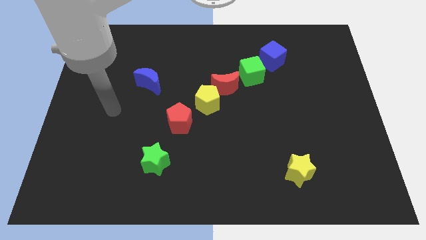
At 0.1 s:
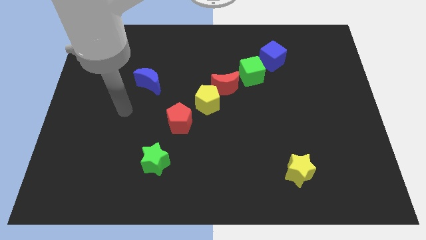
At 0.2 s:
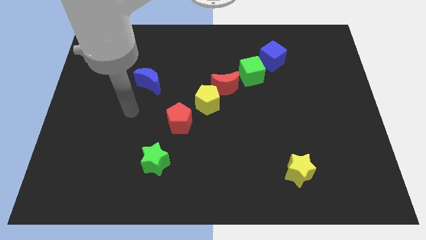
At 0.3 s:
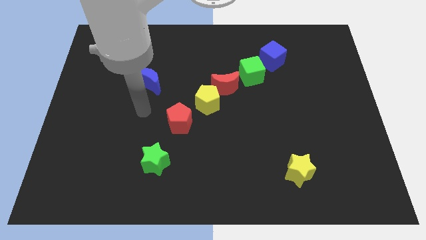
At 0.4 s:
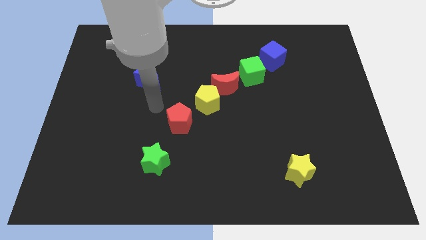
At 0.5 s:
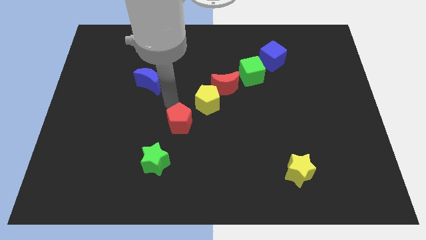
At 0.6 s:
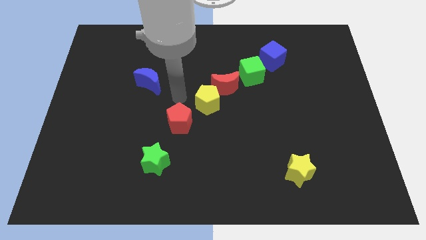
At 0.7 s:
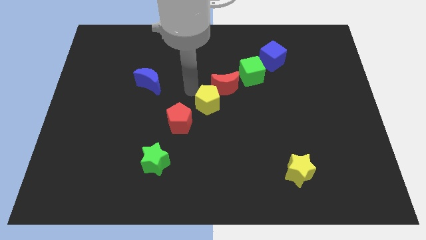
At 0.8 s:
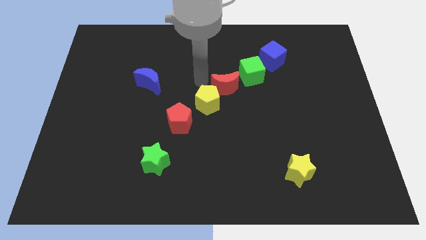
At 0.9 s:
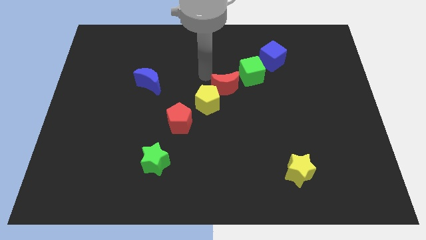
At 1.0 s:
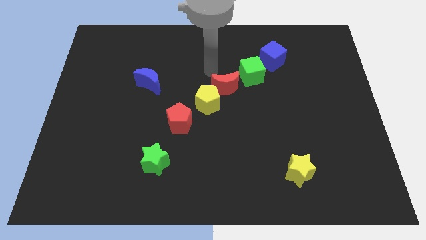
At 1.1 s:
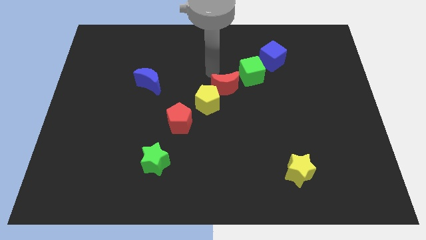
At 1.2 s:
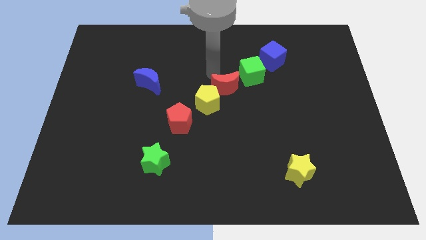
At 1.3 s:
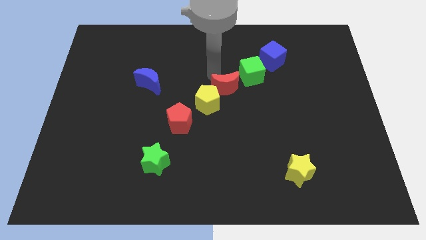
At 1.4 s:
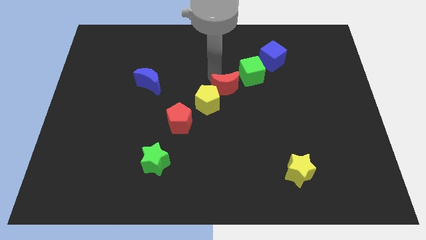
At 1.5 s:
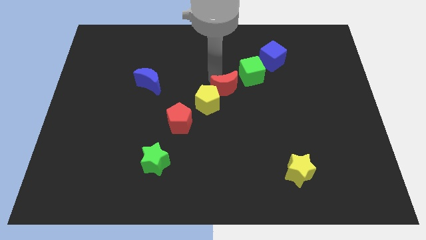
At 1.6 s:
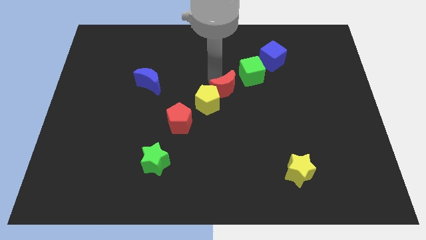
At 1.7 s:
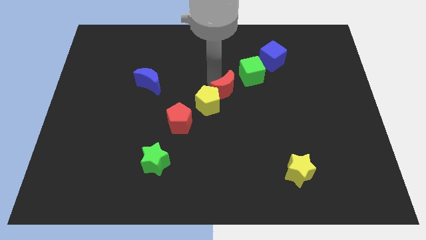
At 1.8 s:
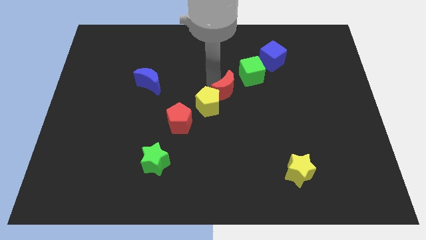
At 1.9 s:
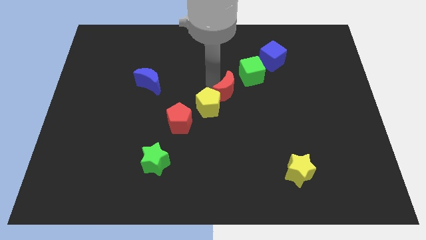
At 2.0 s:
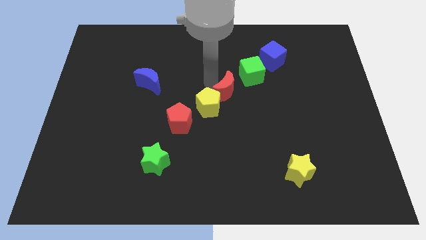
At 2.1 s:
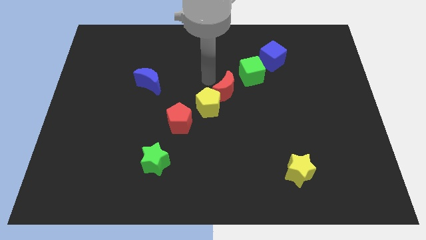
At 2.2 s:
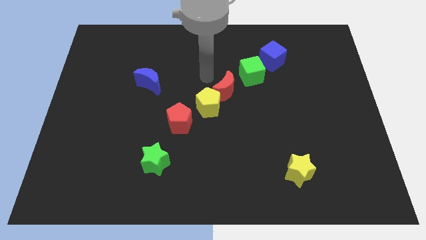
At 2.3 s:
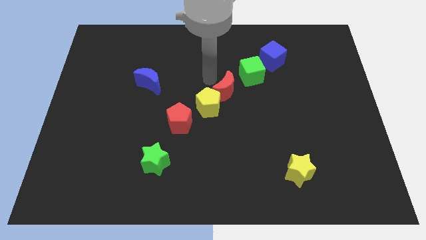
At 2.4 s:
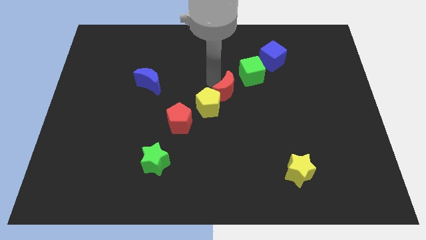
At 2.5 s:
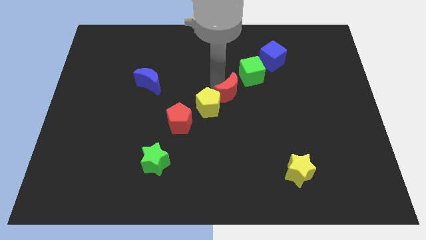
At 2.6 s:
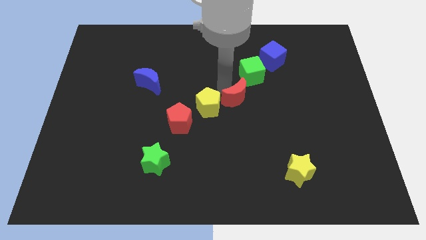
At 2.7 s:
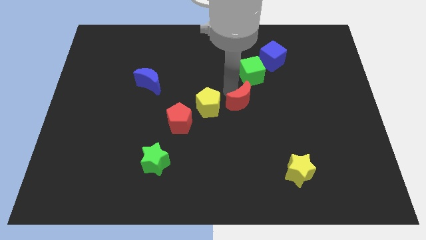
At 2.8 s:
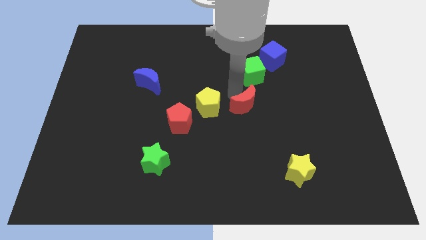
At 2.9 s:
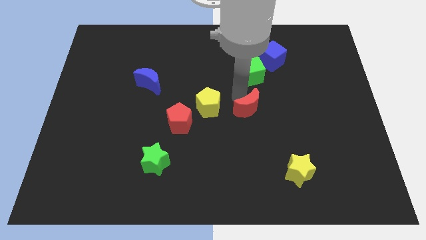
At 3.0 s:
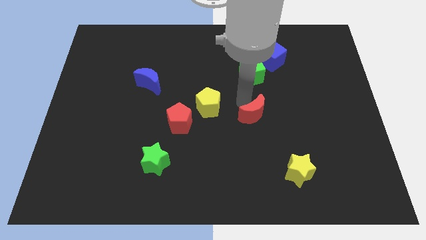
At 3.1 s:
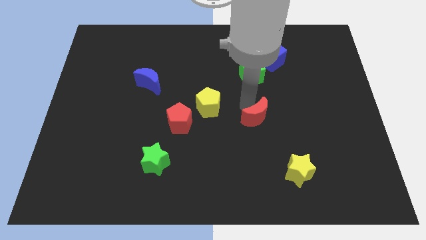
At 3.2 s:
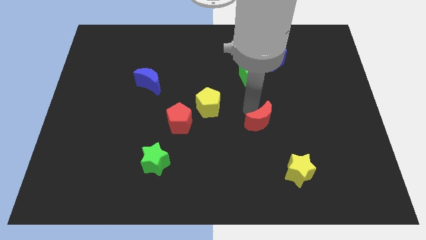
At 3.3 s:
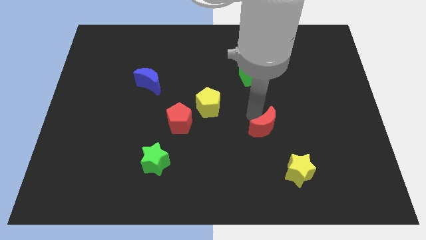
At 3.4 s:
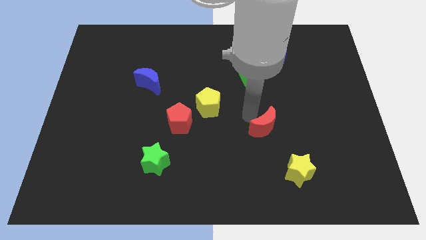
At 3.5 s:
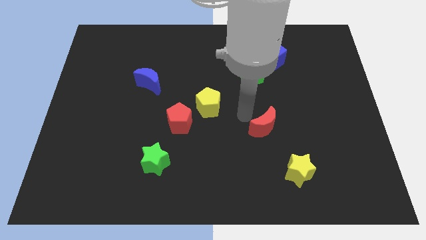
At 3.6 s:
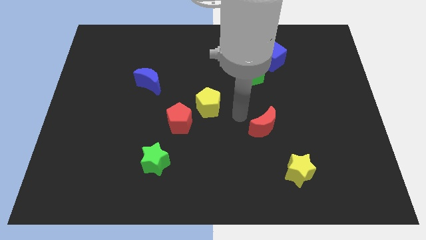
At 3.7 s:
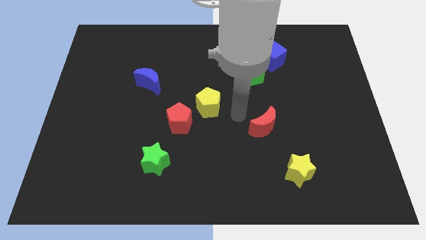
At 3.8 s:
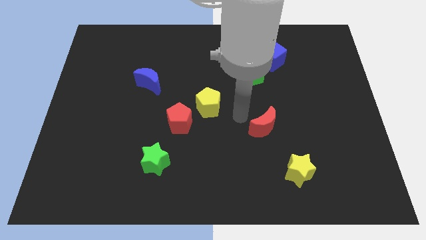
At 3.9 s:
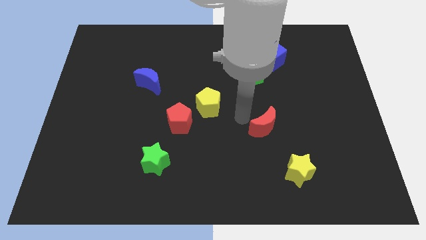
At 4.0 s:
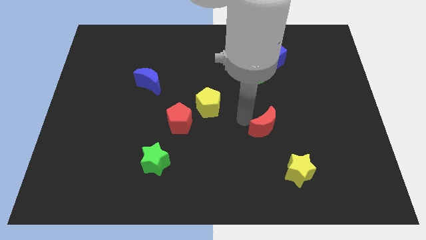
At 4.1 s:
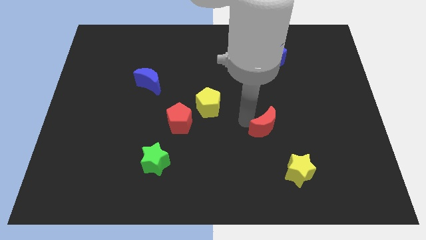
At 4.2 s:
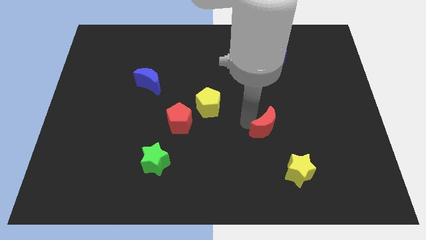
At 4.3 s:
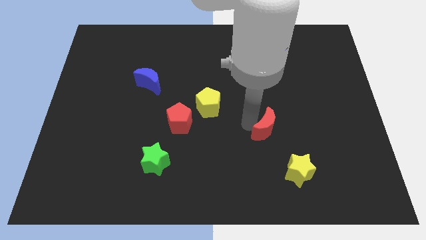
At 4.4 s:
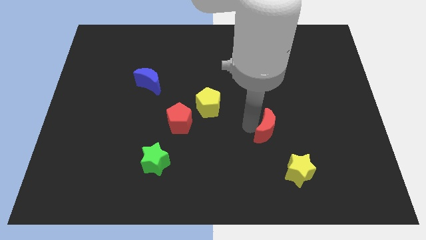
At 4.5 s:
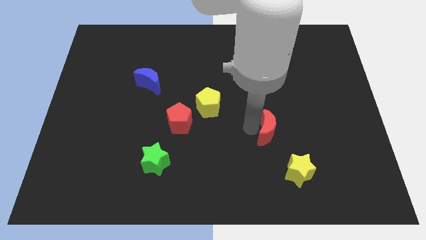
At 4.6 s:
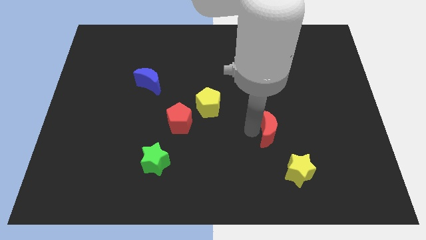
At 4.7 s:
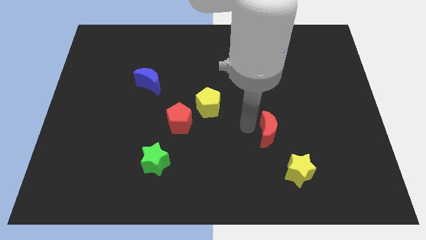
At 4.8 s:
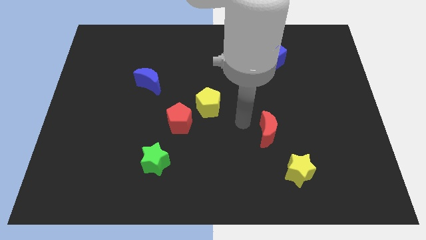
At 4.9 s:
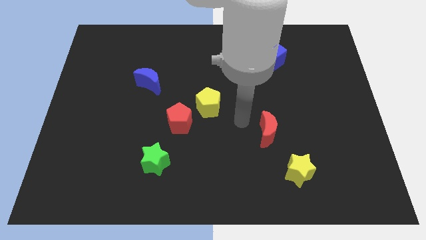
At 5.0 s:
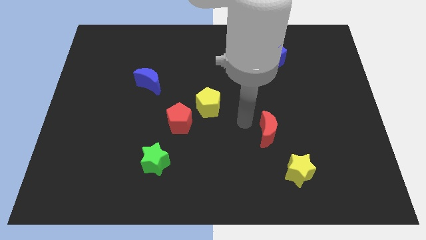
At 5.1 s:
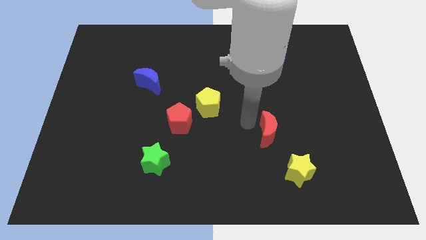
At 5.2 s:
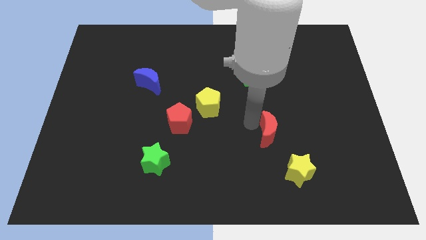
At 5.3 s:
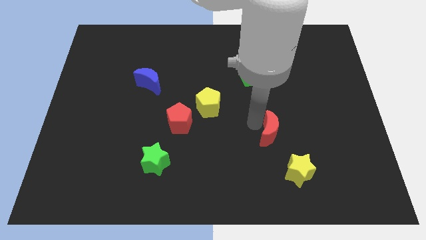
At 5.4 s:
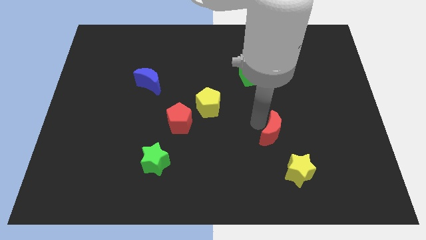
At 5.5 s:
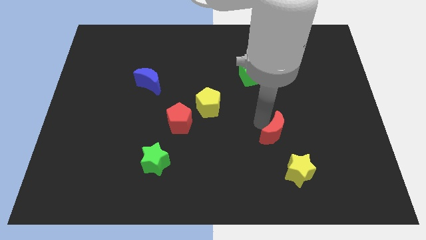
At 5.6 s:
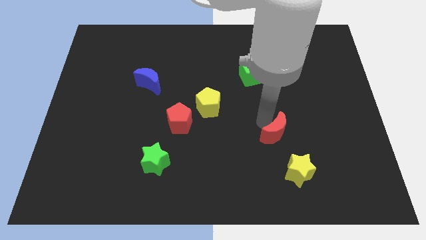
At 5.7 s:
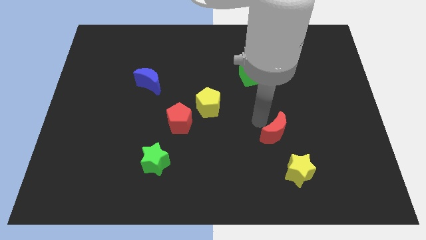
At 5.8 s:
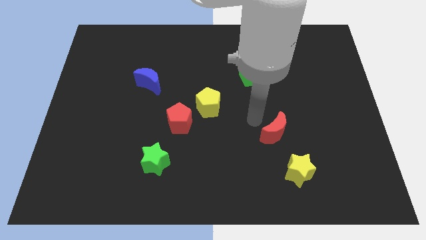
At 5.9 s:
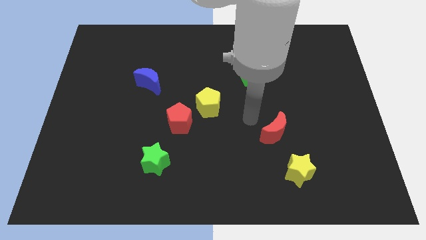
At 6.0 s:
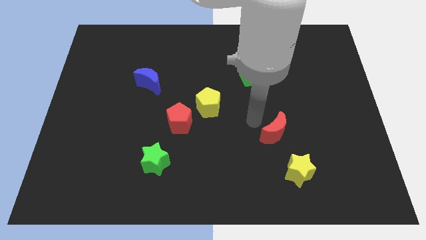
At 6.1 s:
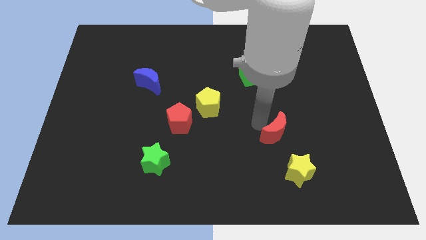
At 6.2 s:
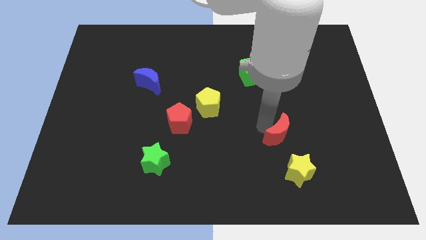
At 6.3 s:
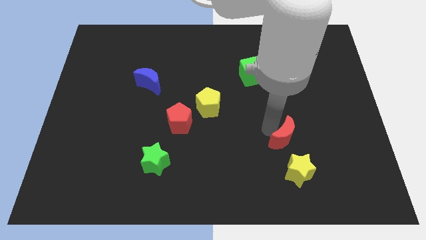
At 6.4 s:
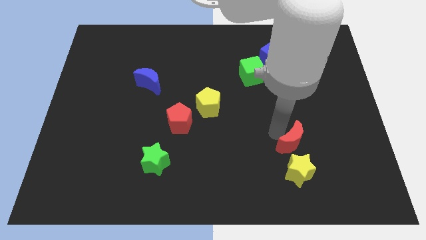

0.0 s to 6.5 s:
slide the red moon down and right

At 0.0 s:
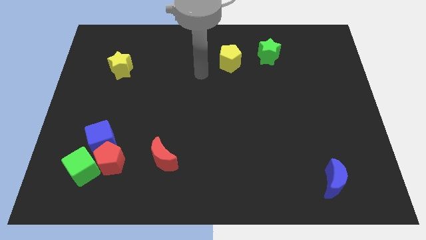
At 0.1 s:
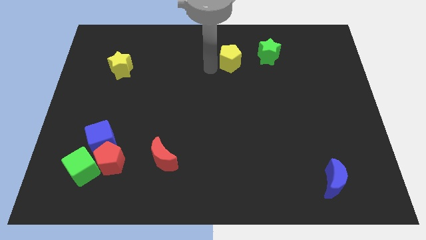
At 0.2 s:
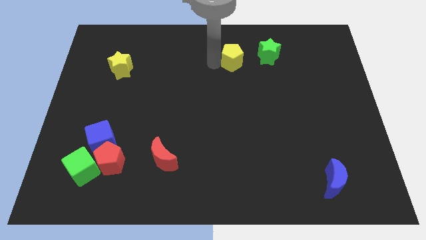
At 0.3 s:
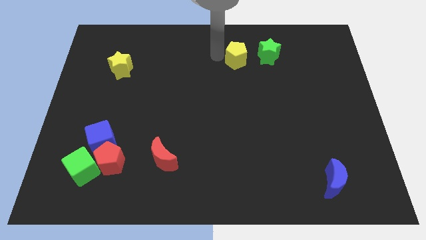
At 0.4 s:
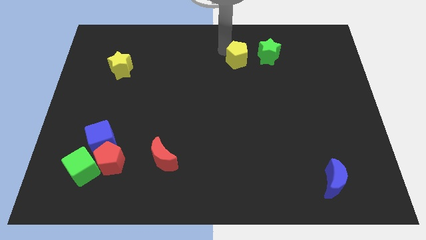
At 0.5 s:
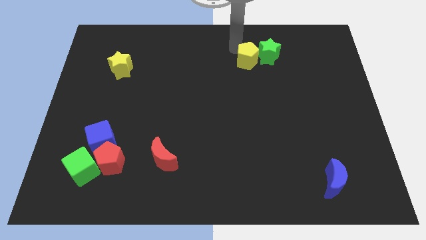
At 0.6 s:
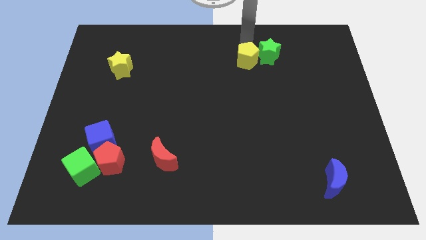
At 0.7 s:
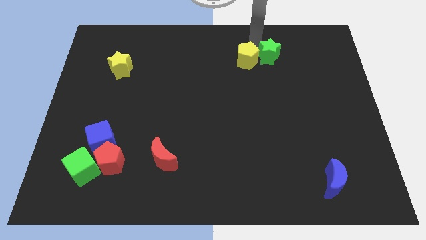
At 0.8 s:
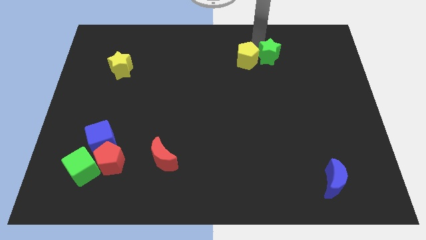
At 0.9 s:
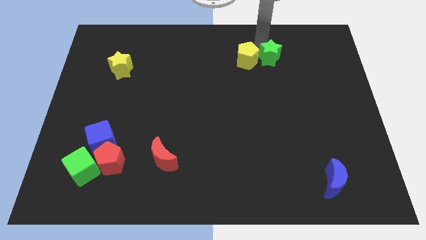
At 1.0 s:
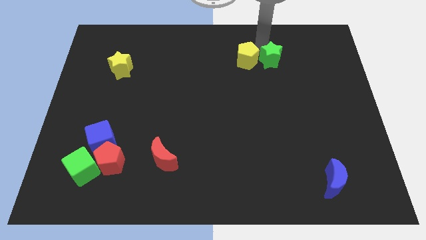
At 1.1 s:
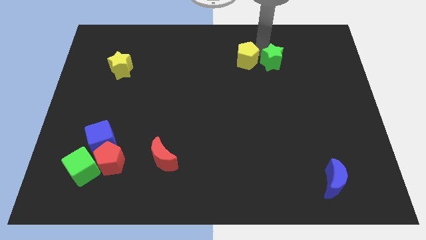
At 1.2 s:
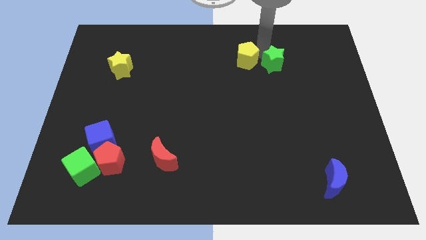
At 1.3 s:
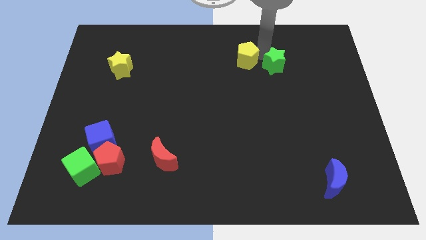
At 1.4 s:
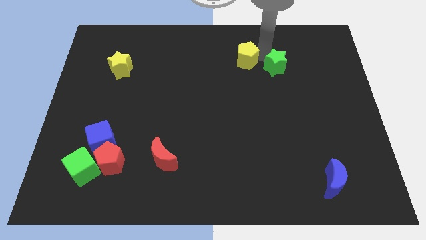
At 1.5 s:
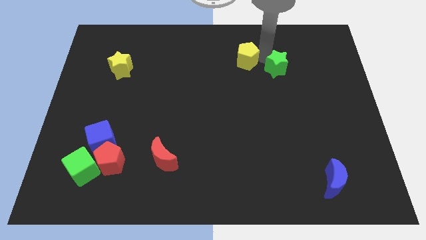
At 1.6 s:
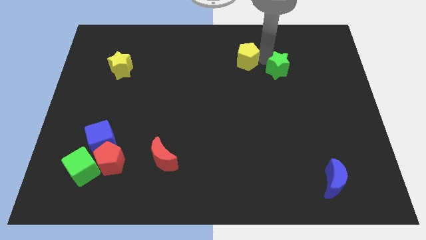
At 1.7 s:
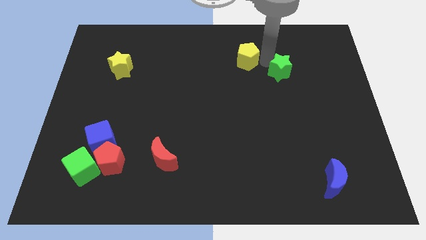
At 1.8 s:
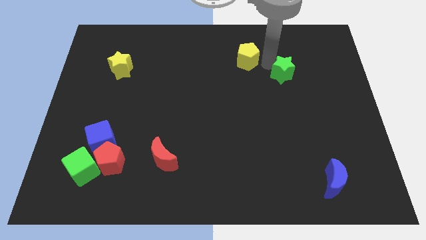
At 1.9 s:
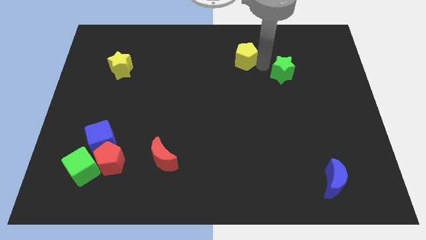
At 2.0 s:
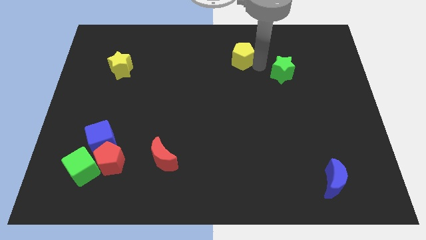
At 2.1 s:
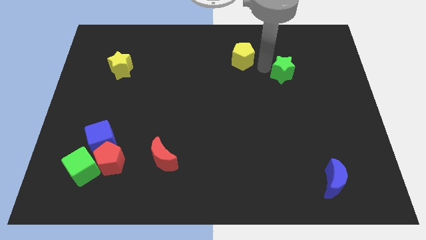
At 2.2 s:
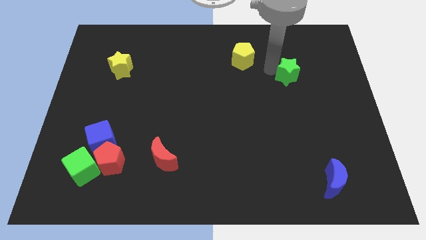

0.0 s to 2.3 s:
slightly slide the green star down and right
